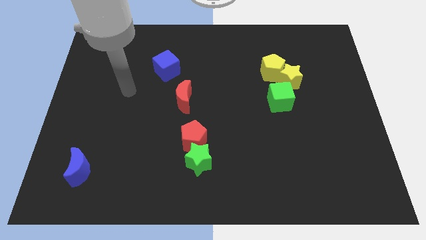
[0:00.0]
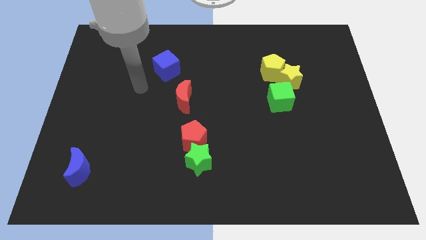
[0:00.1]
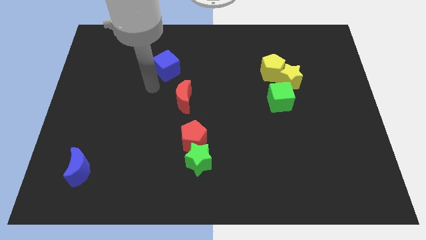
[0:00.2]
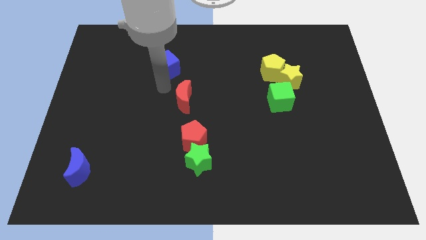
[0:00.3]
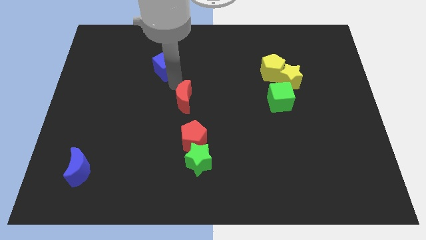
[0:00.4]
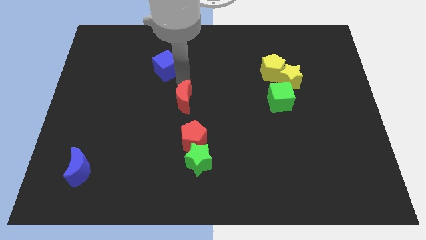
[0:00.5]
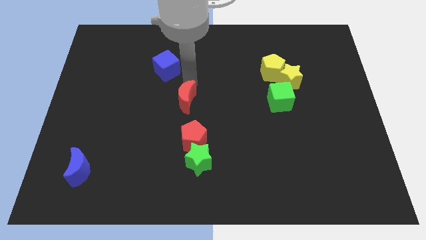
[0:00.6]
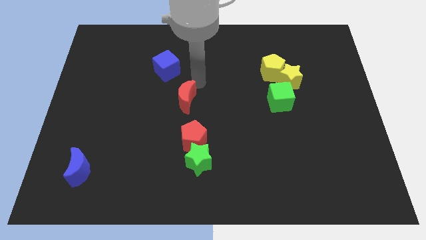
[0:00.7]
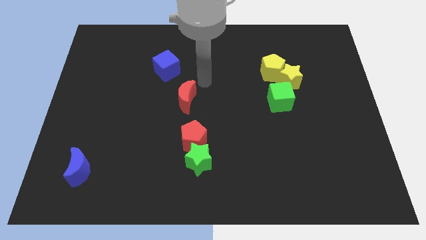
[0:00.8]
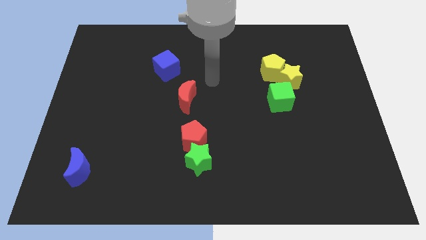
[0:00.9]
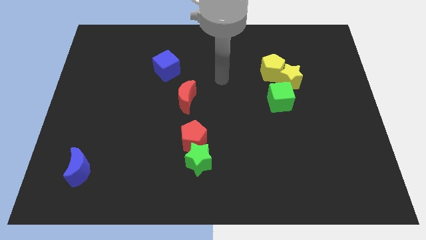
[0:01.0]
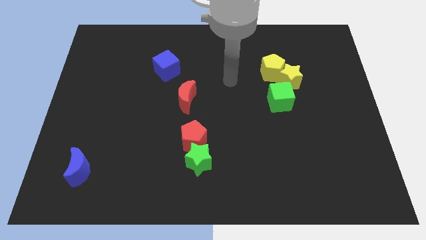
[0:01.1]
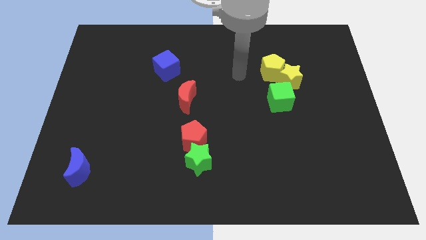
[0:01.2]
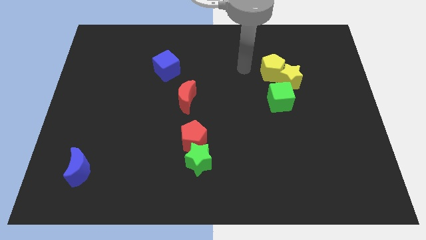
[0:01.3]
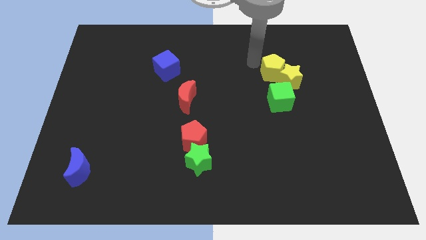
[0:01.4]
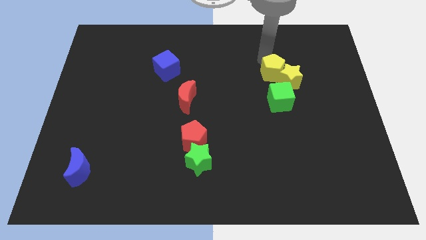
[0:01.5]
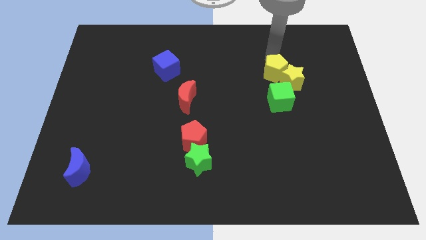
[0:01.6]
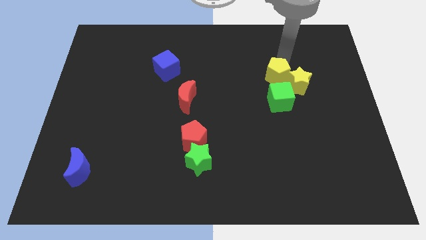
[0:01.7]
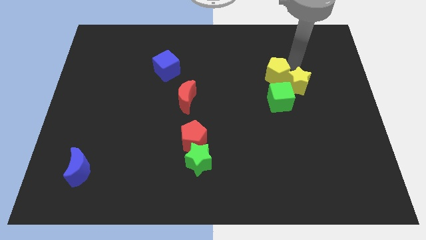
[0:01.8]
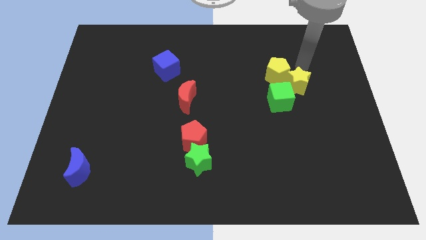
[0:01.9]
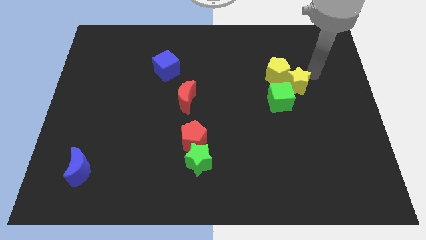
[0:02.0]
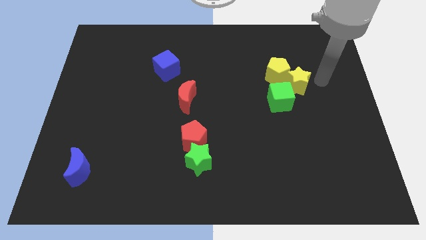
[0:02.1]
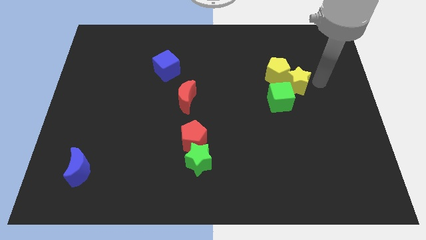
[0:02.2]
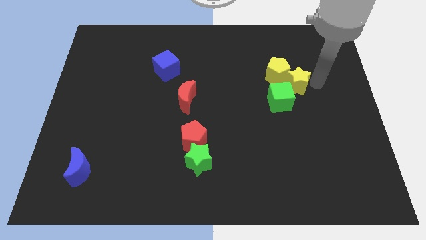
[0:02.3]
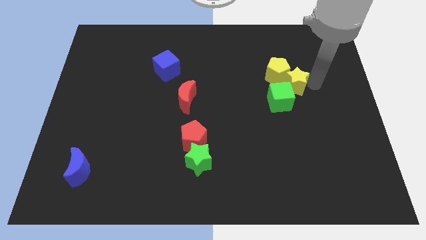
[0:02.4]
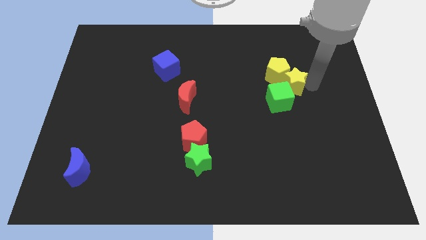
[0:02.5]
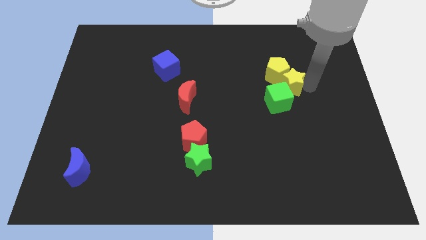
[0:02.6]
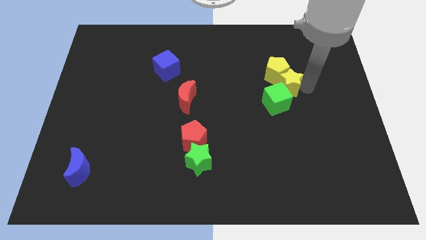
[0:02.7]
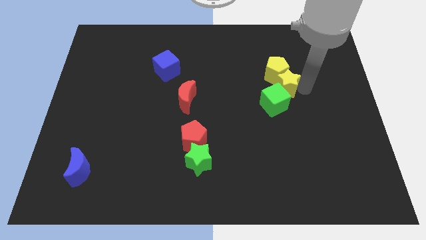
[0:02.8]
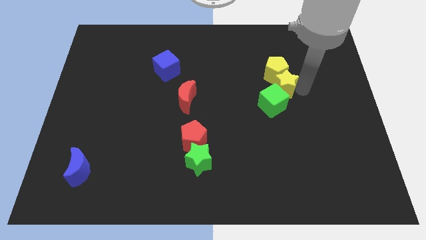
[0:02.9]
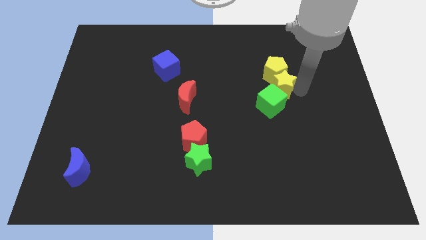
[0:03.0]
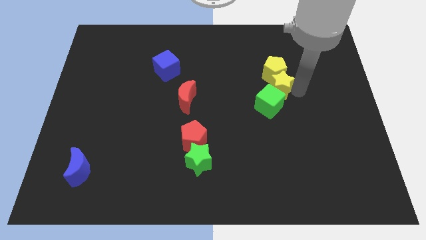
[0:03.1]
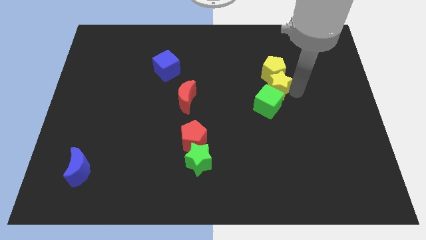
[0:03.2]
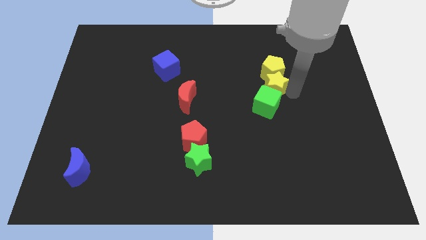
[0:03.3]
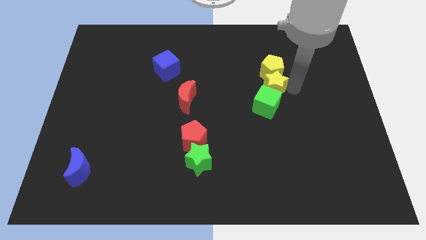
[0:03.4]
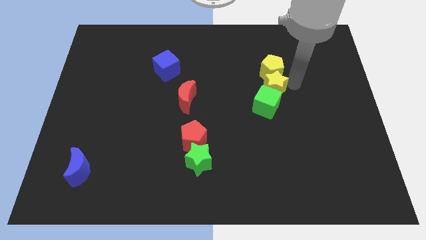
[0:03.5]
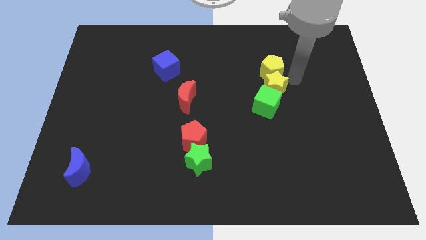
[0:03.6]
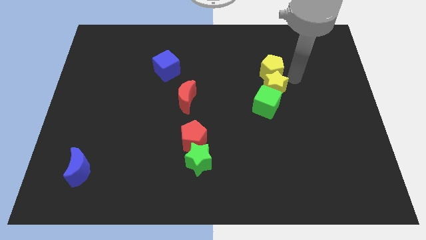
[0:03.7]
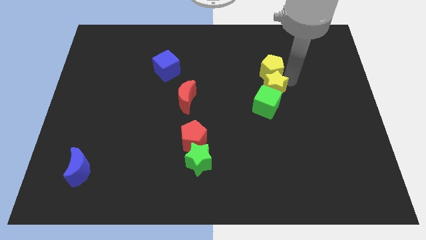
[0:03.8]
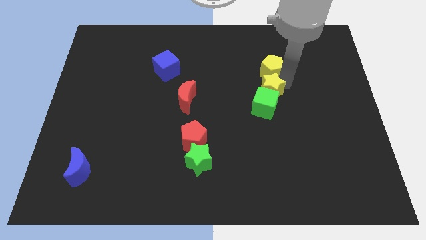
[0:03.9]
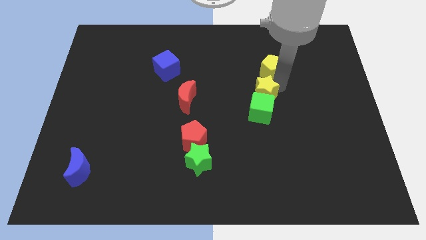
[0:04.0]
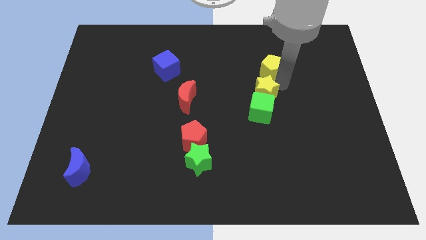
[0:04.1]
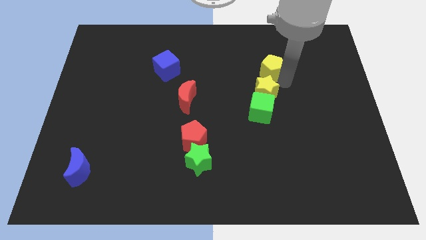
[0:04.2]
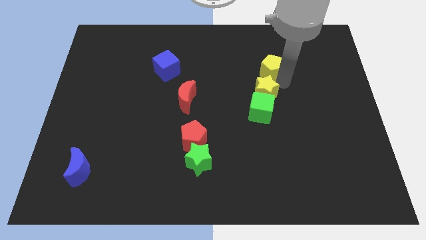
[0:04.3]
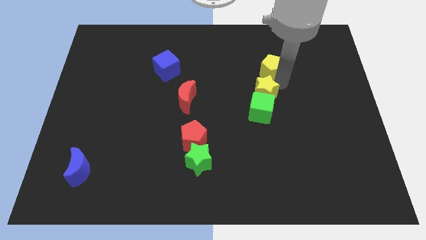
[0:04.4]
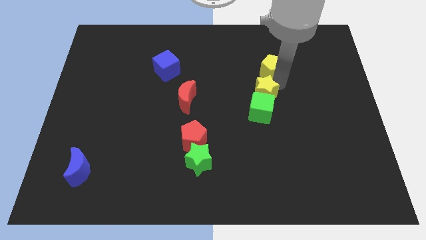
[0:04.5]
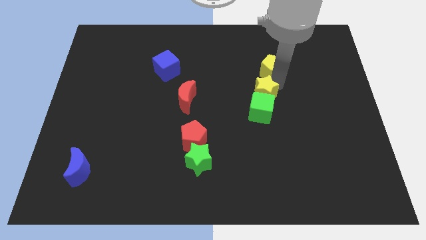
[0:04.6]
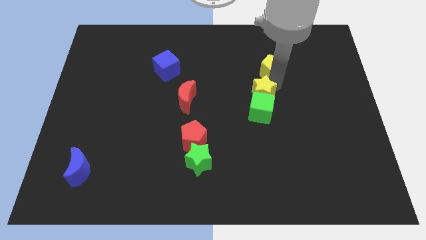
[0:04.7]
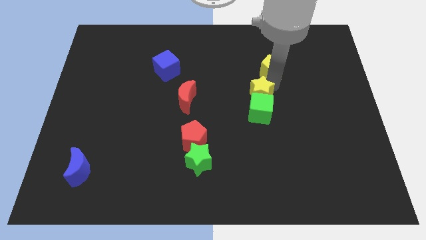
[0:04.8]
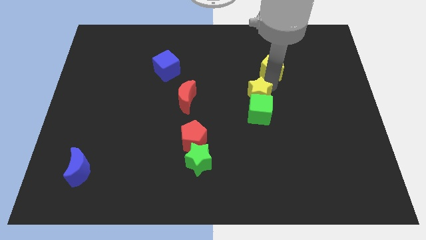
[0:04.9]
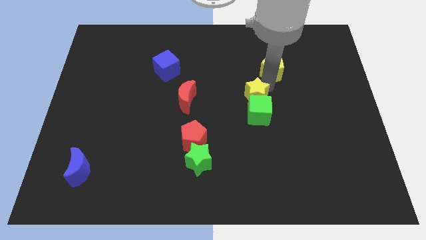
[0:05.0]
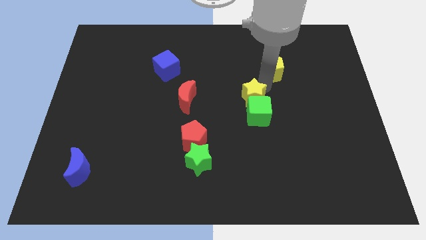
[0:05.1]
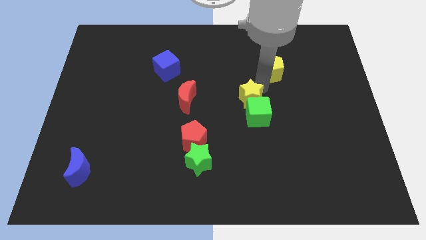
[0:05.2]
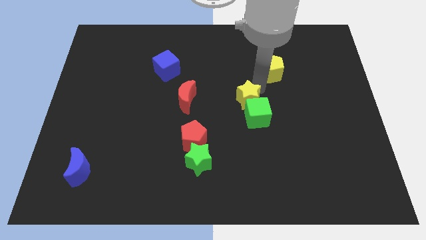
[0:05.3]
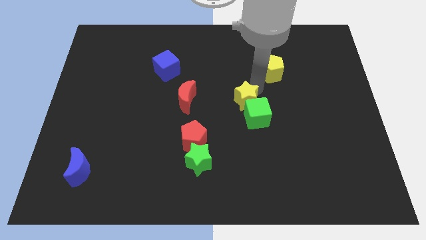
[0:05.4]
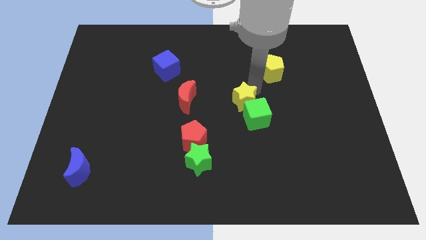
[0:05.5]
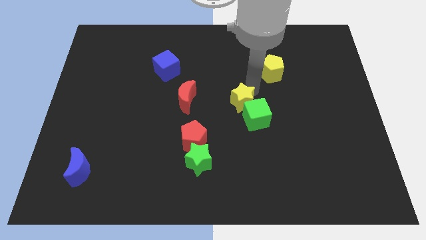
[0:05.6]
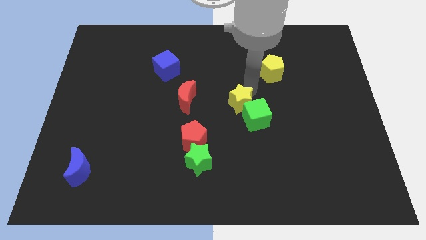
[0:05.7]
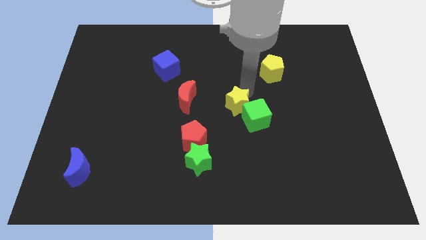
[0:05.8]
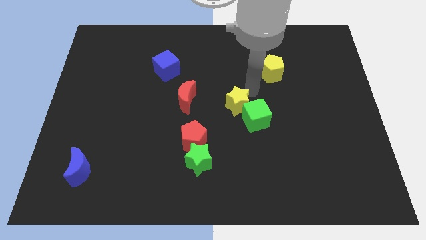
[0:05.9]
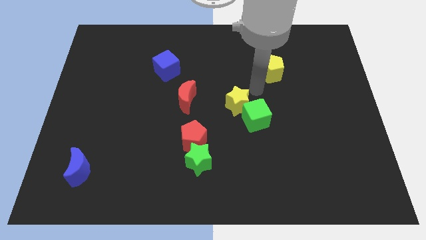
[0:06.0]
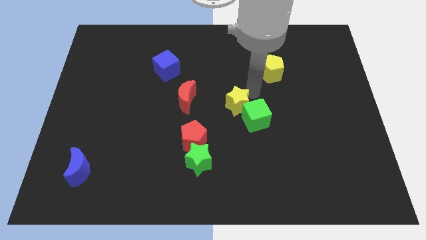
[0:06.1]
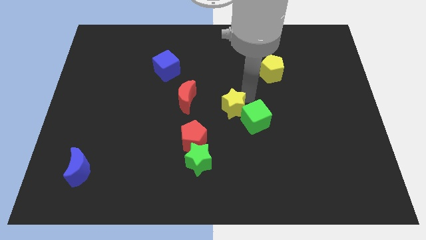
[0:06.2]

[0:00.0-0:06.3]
put the yellow star diagonally up and to the right of the red pentagon

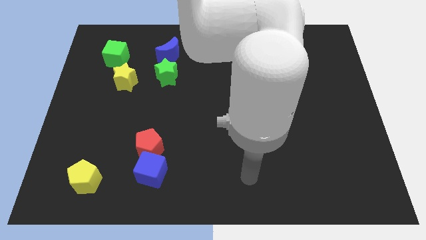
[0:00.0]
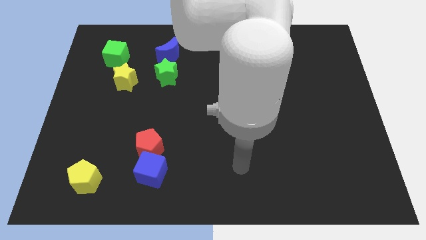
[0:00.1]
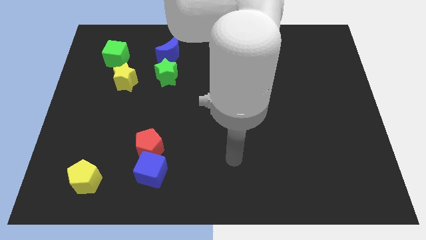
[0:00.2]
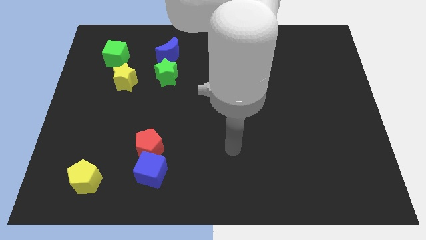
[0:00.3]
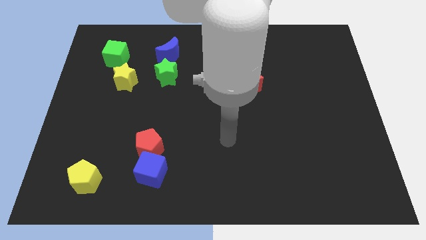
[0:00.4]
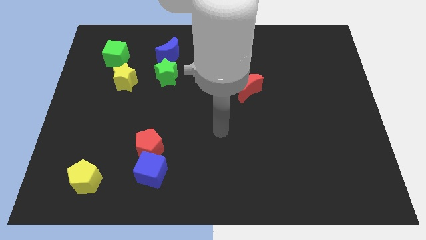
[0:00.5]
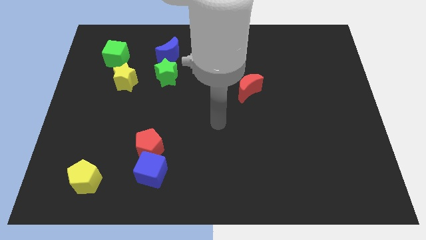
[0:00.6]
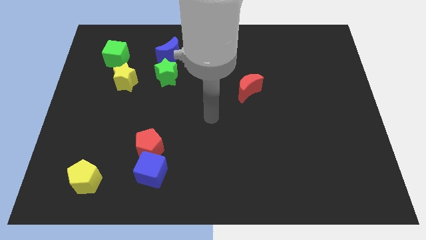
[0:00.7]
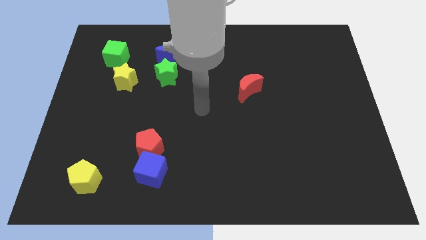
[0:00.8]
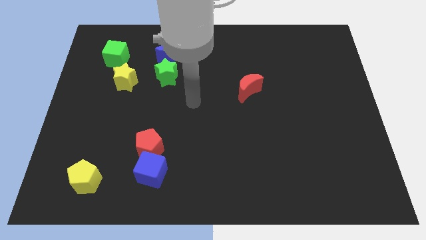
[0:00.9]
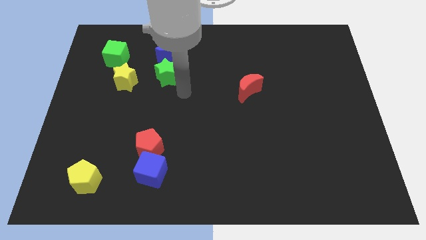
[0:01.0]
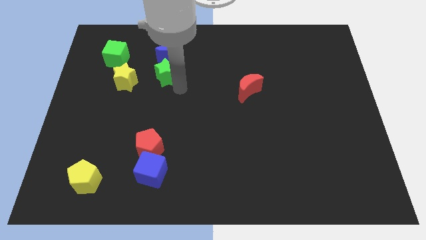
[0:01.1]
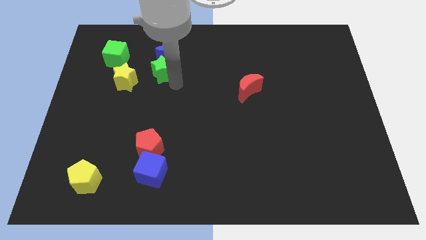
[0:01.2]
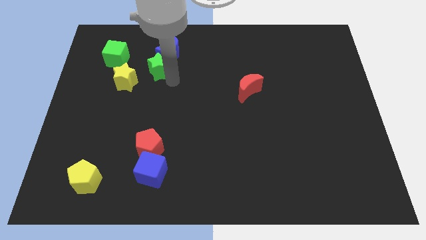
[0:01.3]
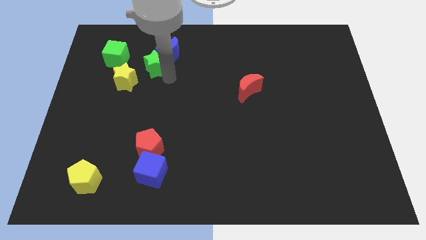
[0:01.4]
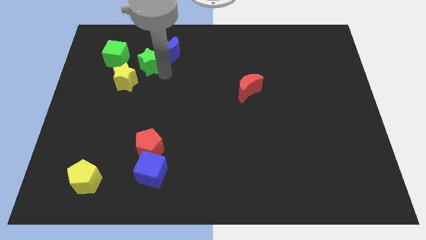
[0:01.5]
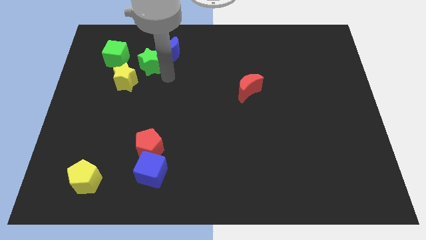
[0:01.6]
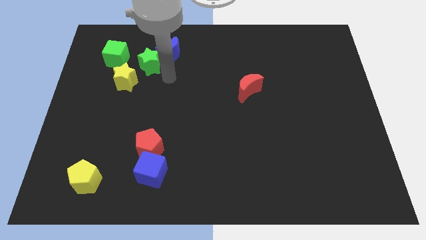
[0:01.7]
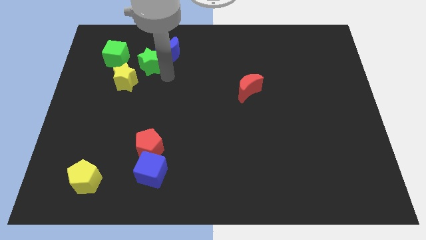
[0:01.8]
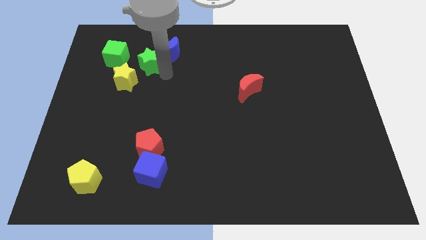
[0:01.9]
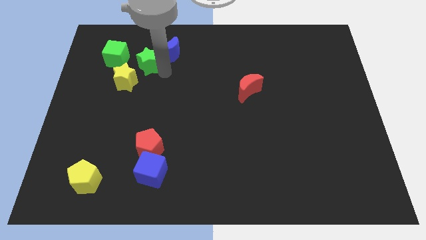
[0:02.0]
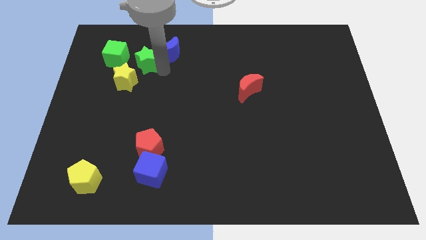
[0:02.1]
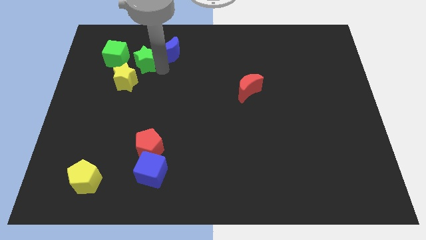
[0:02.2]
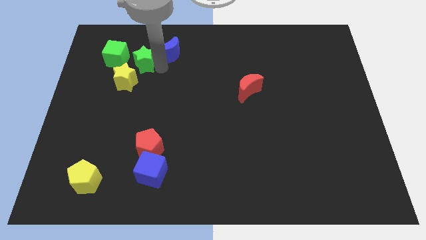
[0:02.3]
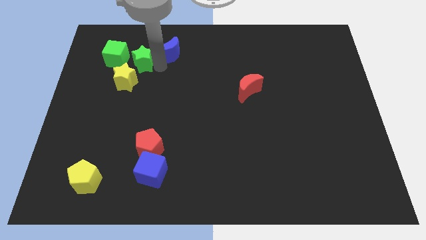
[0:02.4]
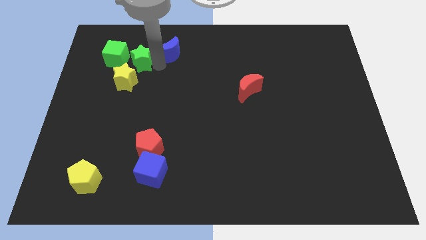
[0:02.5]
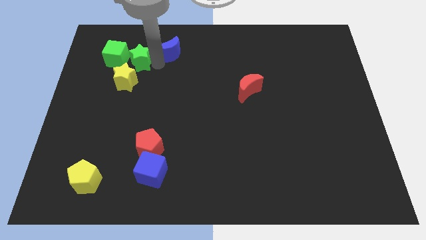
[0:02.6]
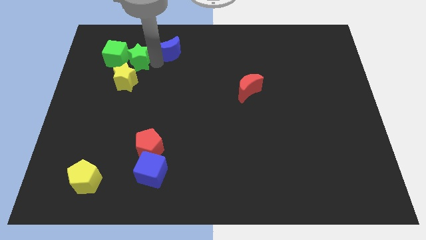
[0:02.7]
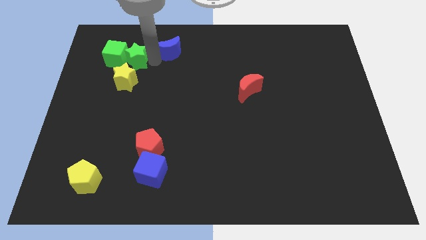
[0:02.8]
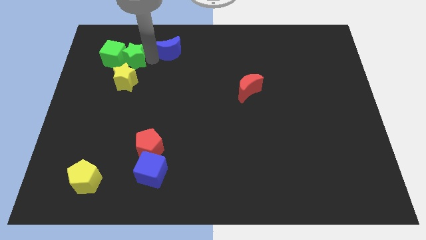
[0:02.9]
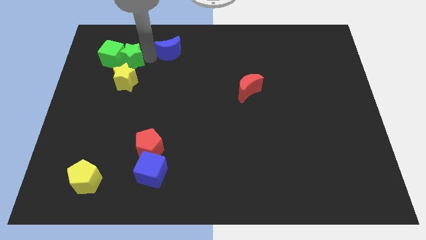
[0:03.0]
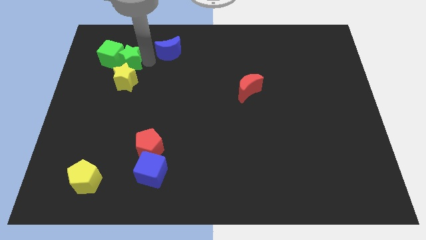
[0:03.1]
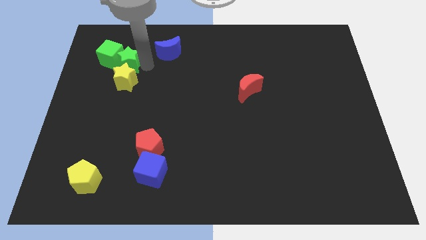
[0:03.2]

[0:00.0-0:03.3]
put the green star to the top left of the yellow star
